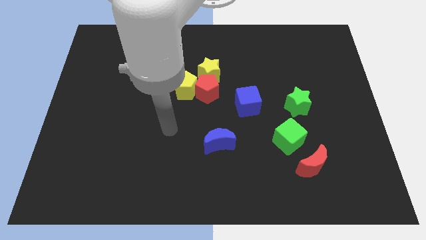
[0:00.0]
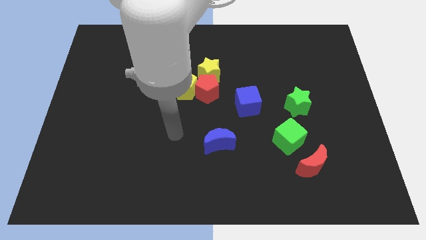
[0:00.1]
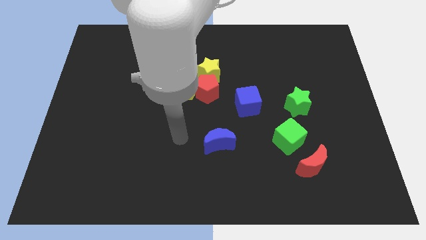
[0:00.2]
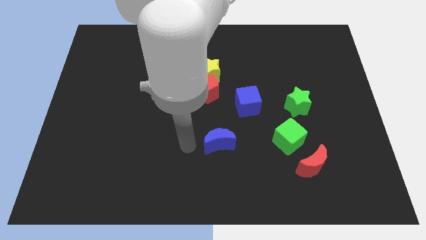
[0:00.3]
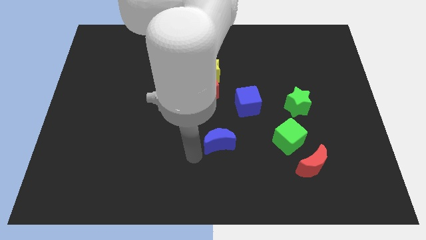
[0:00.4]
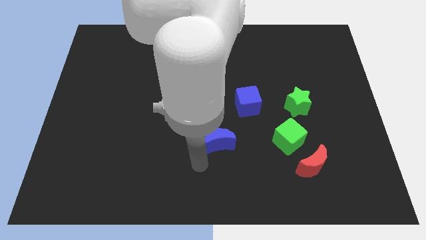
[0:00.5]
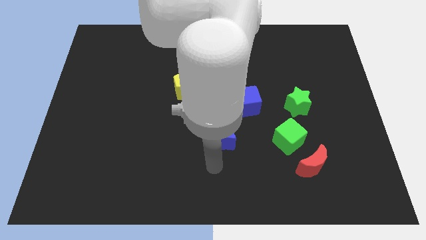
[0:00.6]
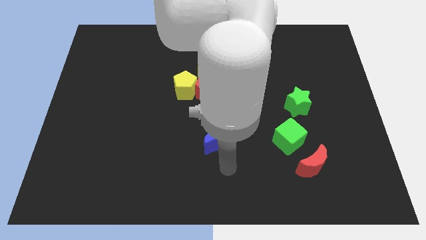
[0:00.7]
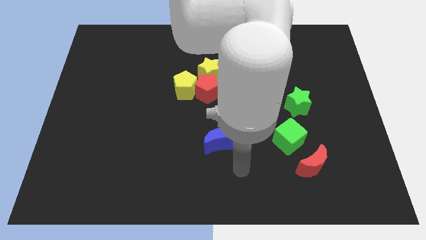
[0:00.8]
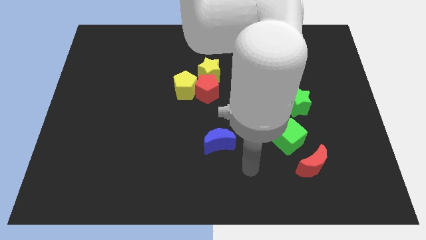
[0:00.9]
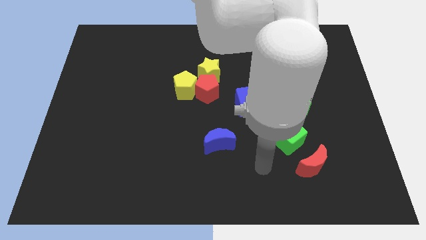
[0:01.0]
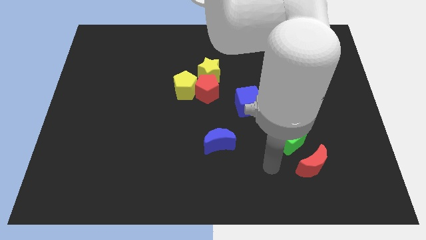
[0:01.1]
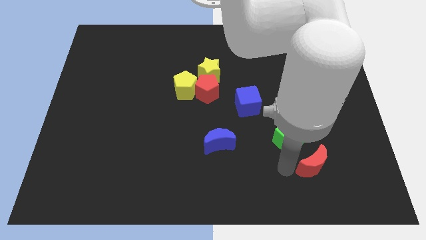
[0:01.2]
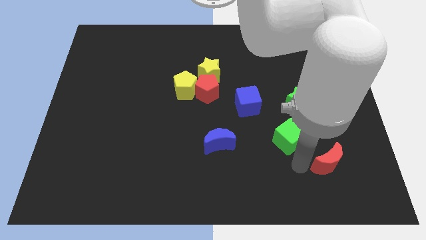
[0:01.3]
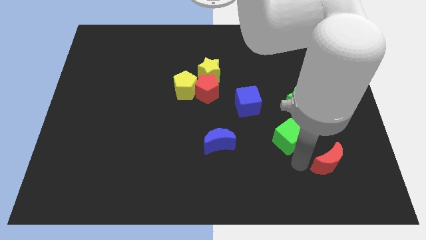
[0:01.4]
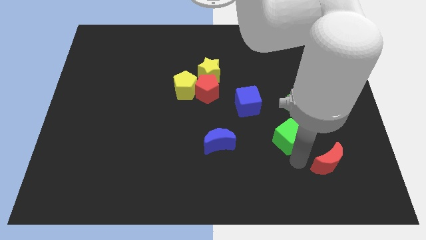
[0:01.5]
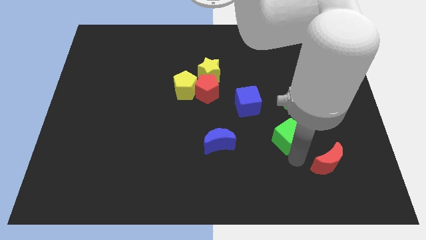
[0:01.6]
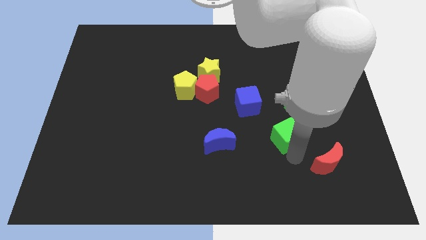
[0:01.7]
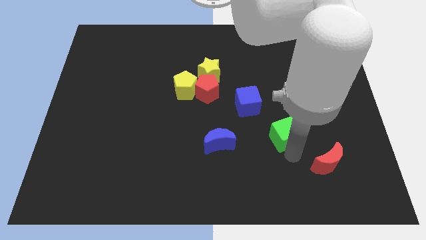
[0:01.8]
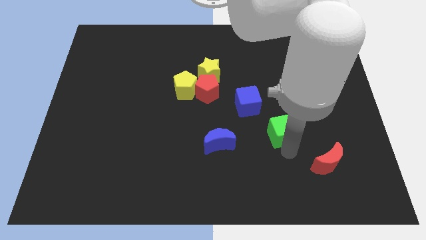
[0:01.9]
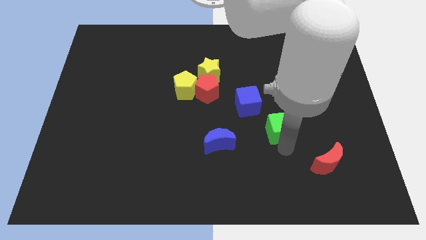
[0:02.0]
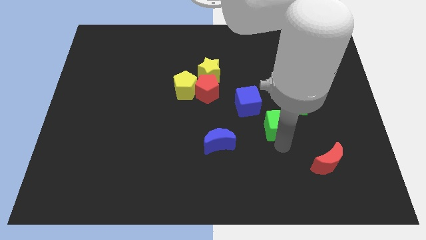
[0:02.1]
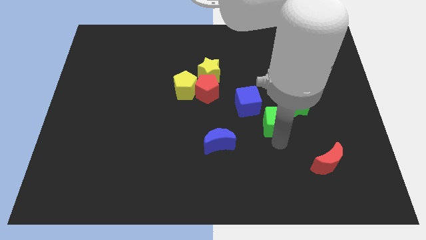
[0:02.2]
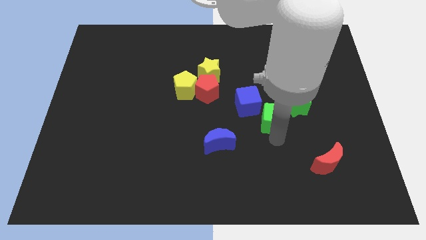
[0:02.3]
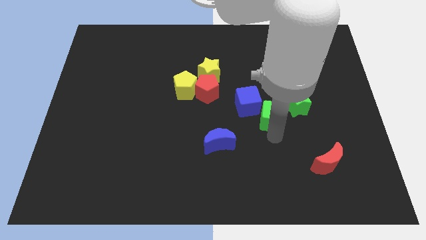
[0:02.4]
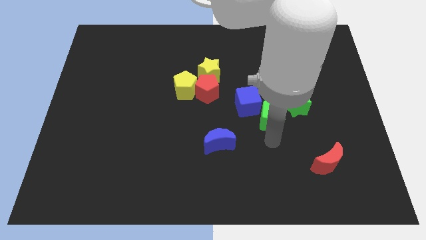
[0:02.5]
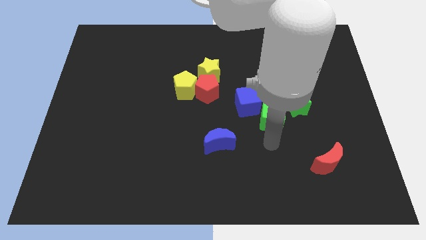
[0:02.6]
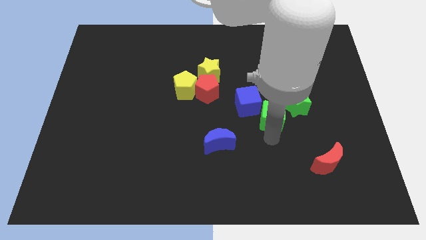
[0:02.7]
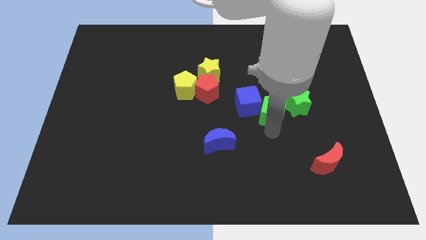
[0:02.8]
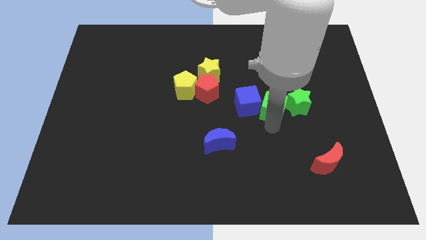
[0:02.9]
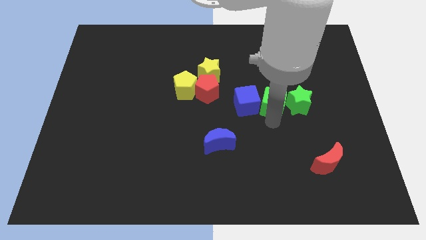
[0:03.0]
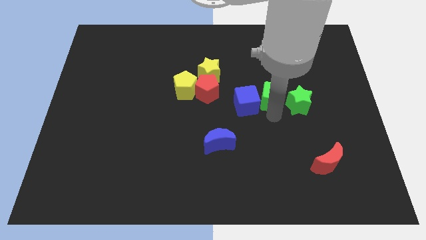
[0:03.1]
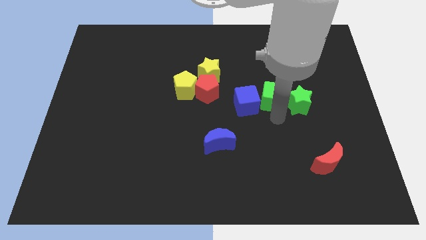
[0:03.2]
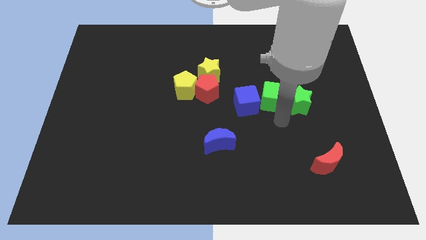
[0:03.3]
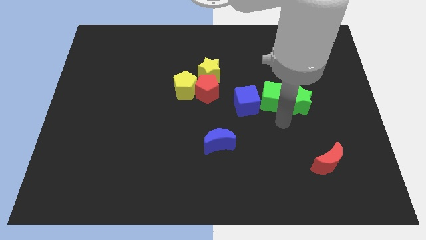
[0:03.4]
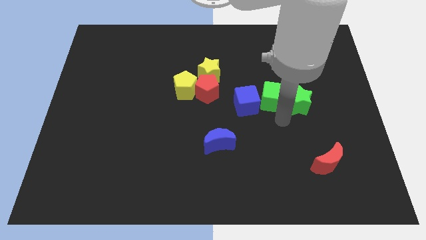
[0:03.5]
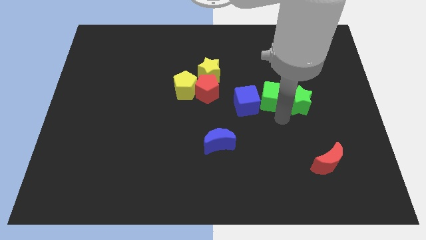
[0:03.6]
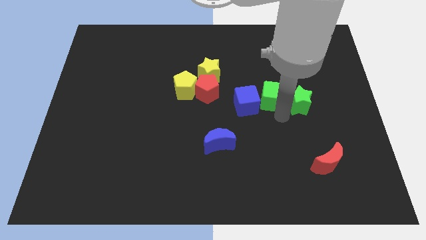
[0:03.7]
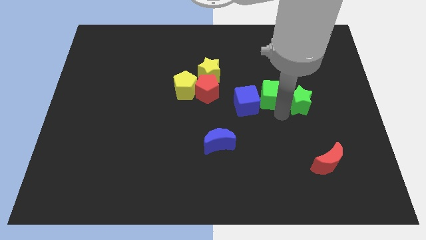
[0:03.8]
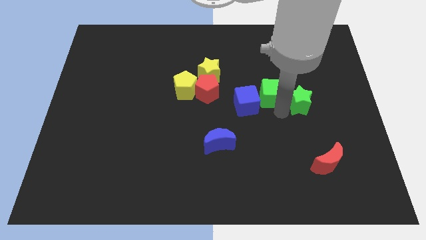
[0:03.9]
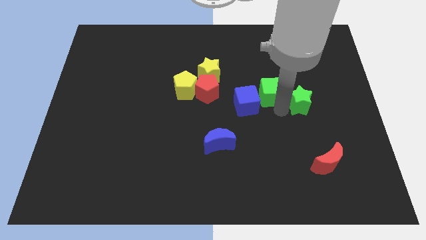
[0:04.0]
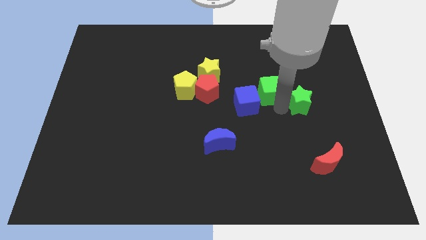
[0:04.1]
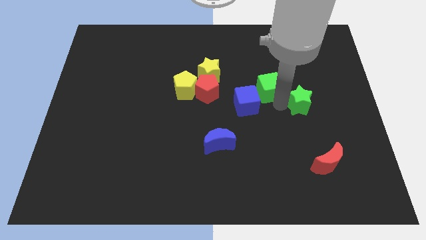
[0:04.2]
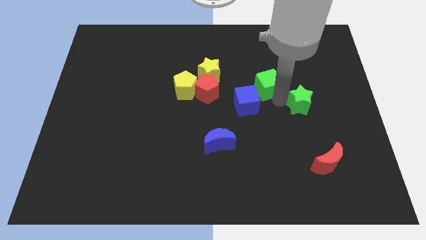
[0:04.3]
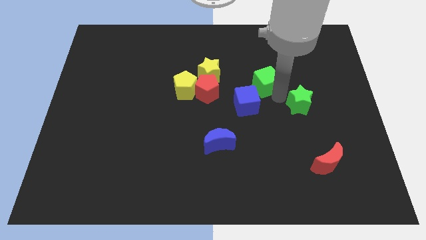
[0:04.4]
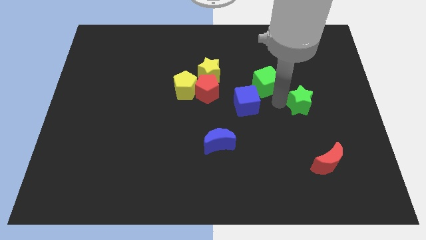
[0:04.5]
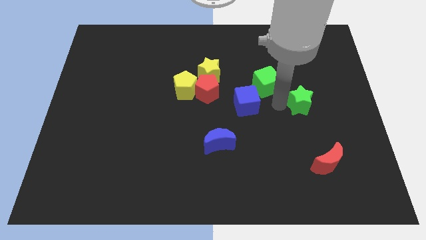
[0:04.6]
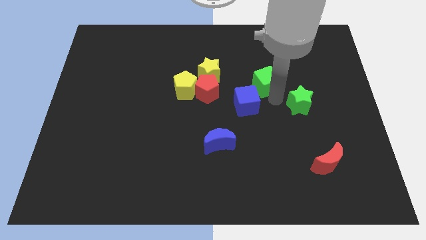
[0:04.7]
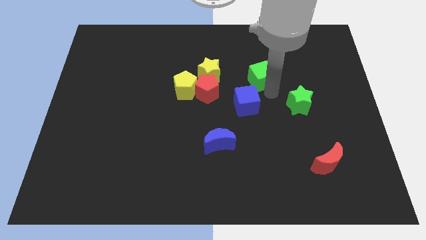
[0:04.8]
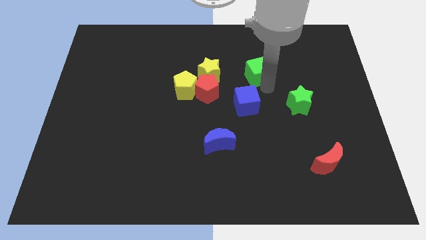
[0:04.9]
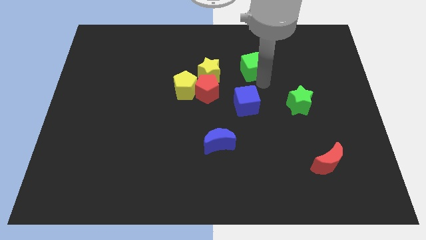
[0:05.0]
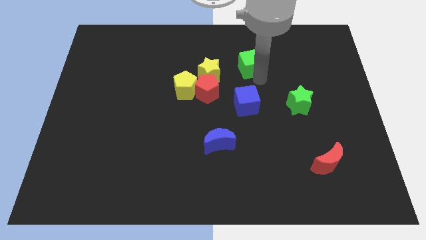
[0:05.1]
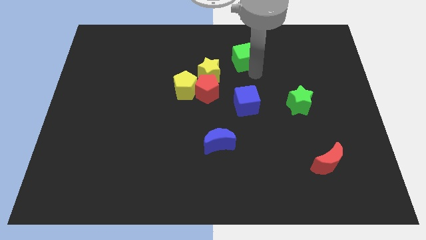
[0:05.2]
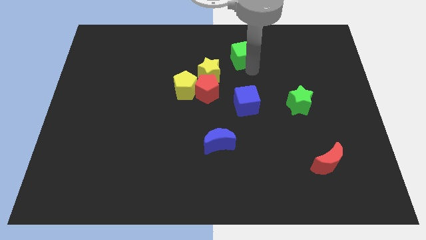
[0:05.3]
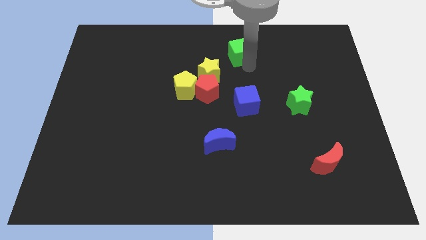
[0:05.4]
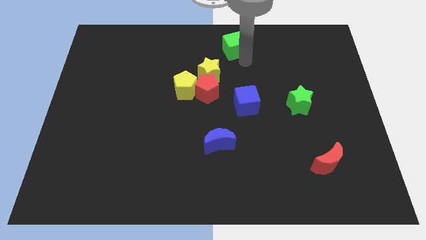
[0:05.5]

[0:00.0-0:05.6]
move the green cube to the top

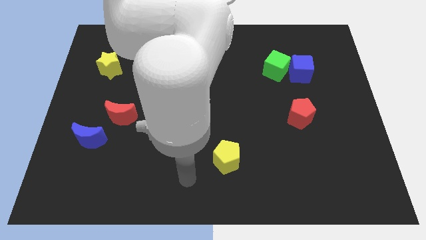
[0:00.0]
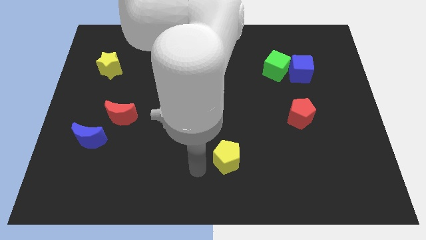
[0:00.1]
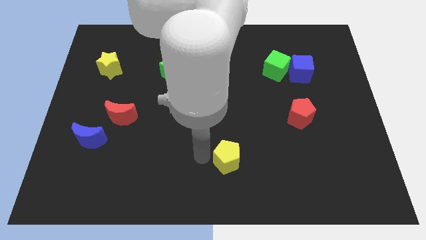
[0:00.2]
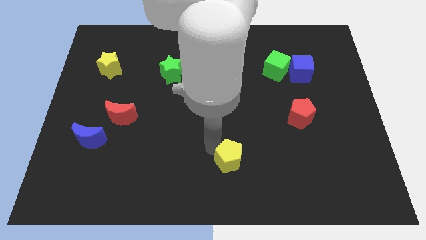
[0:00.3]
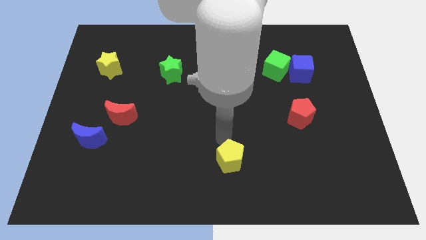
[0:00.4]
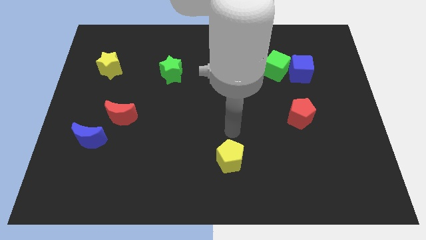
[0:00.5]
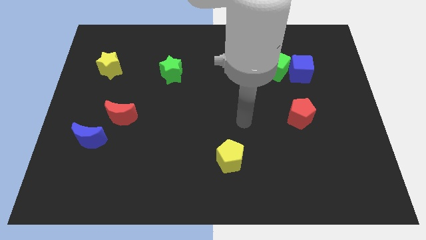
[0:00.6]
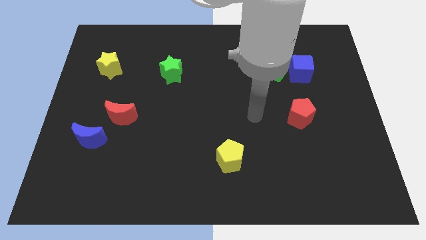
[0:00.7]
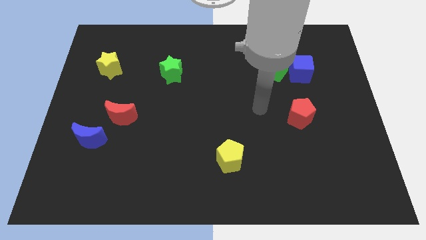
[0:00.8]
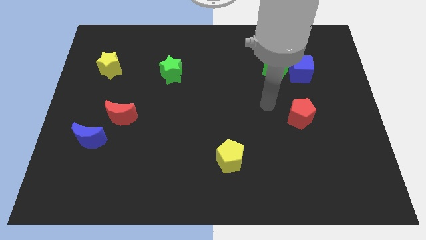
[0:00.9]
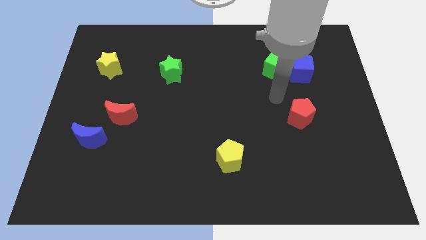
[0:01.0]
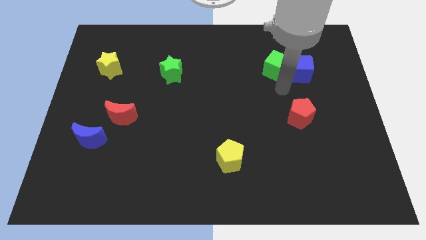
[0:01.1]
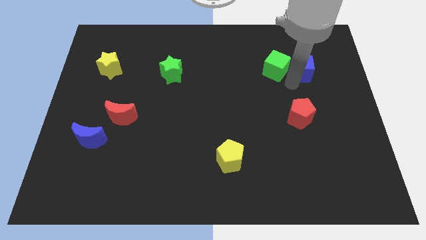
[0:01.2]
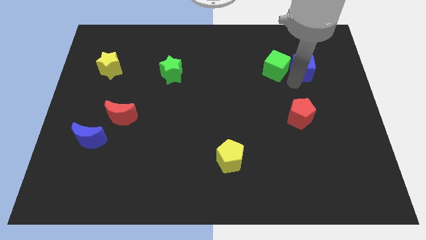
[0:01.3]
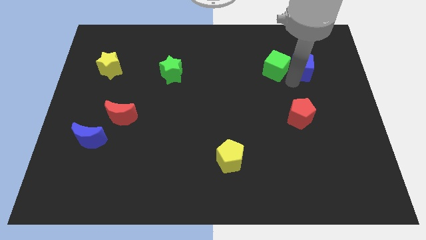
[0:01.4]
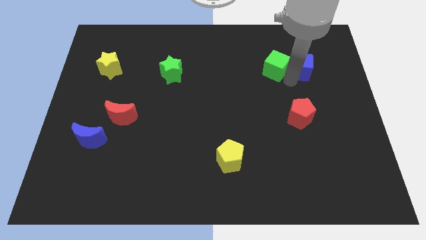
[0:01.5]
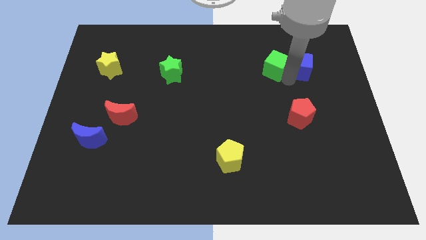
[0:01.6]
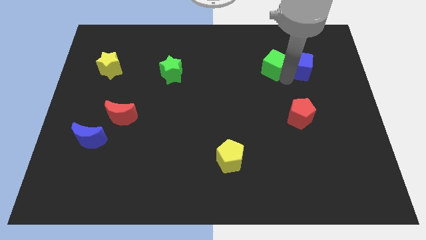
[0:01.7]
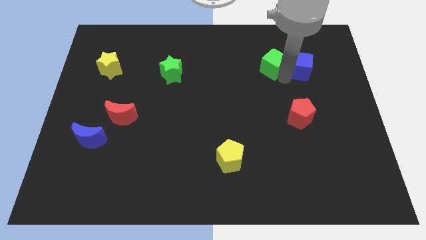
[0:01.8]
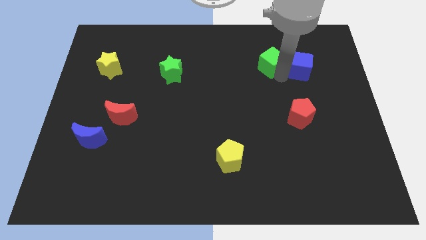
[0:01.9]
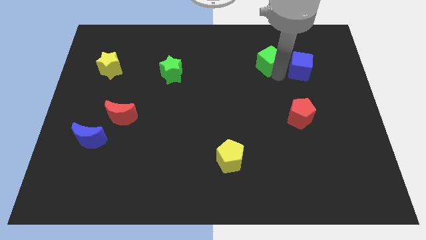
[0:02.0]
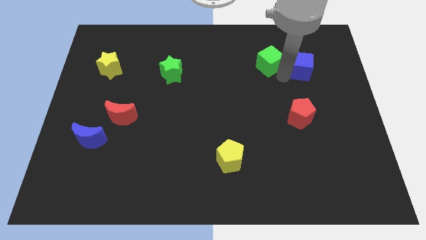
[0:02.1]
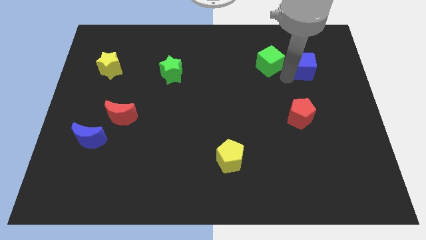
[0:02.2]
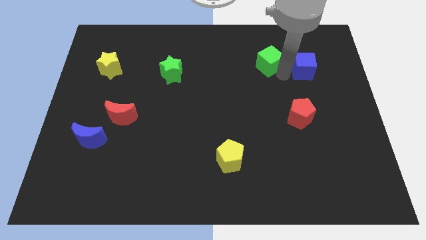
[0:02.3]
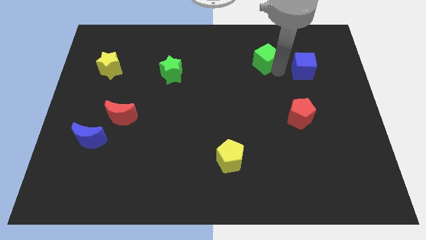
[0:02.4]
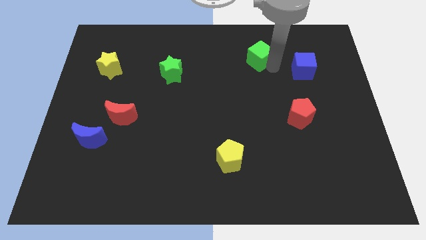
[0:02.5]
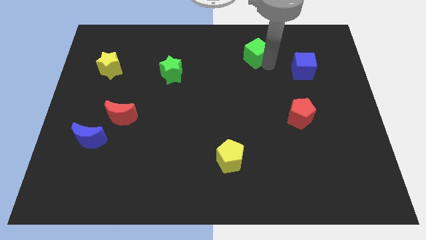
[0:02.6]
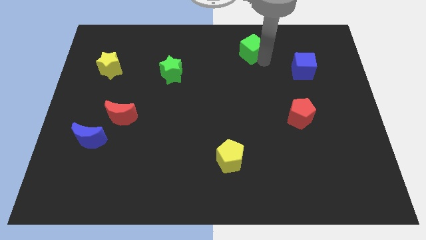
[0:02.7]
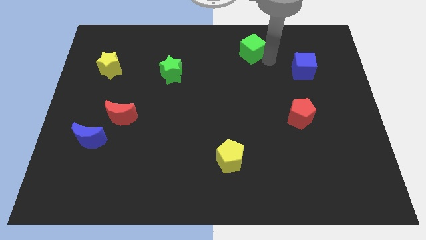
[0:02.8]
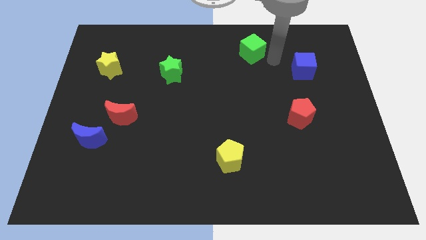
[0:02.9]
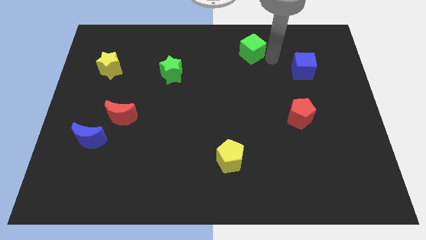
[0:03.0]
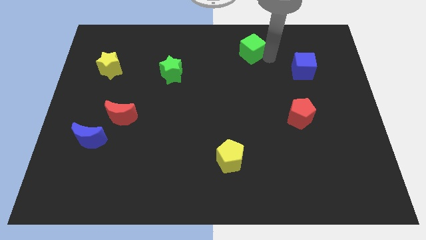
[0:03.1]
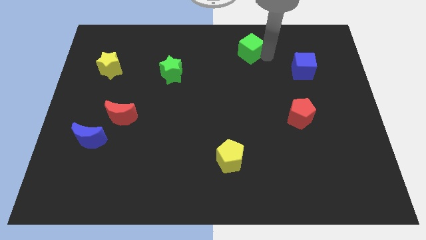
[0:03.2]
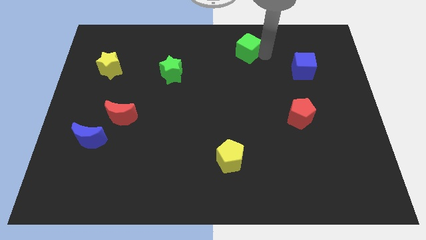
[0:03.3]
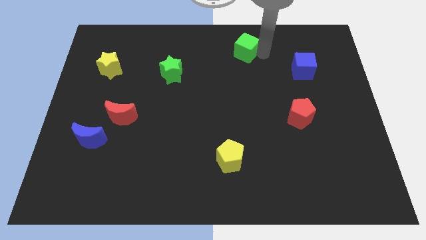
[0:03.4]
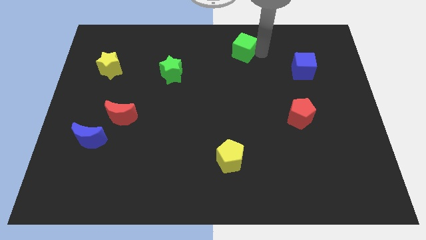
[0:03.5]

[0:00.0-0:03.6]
put the green cube to the top side
